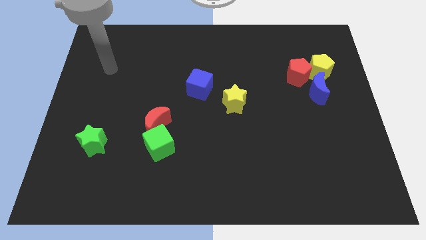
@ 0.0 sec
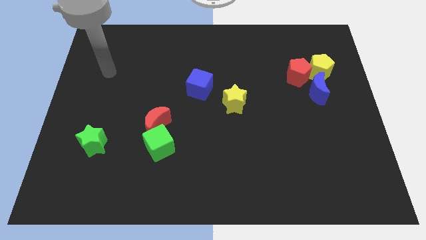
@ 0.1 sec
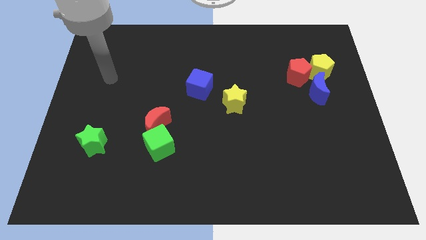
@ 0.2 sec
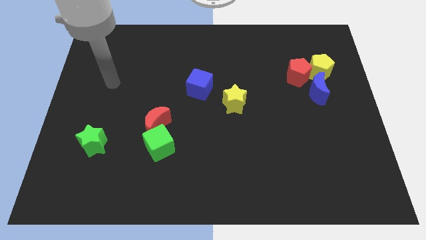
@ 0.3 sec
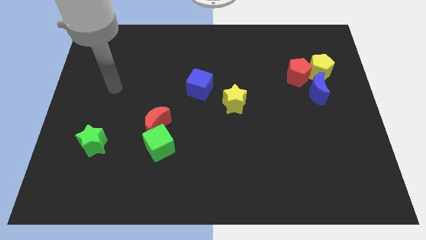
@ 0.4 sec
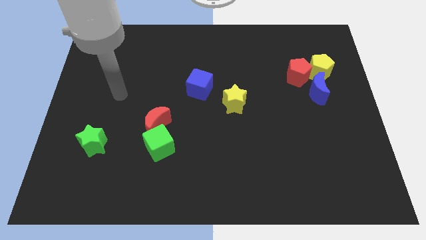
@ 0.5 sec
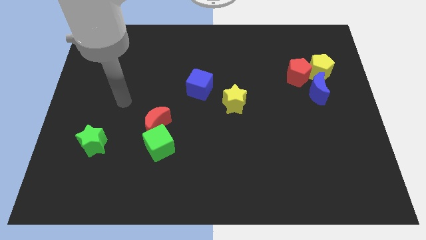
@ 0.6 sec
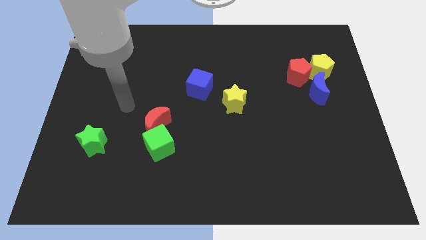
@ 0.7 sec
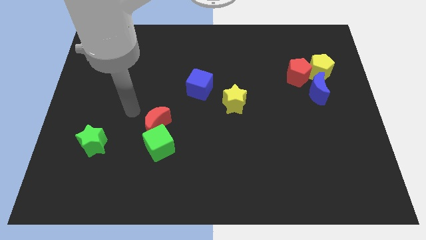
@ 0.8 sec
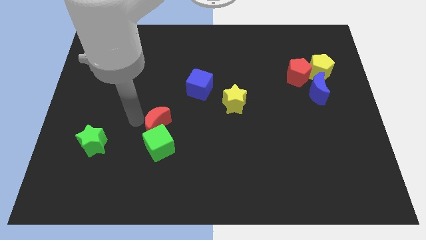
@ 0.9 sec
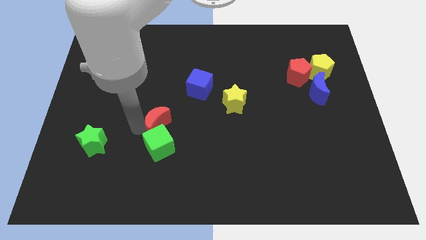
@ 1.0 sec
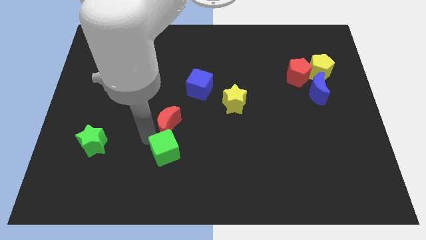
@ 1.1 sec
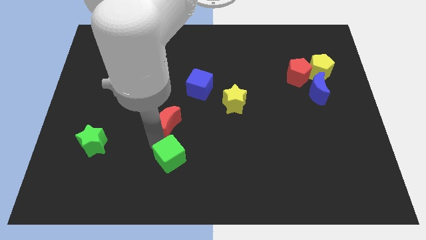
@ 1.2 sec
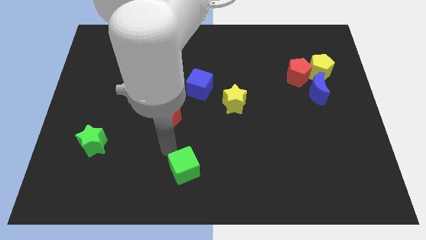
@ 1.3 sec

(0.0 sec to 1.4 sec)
pull the red moon apart from the green cube

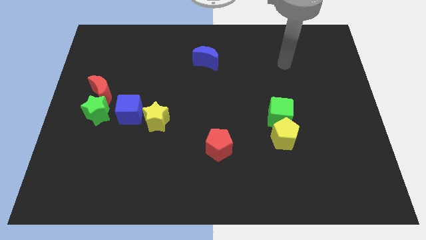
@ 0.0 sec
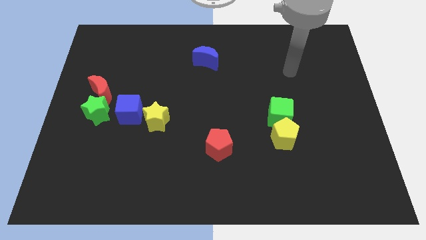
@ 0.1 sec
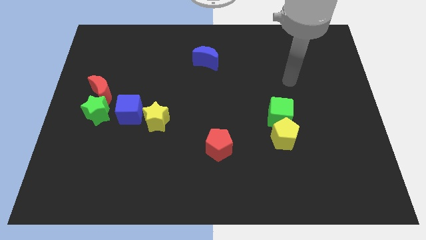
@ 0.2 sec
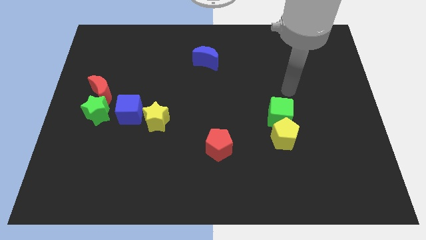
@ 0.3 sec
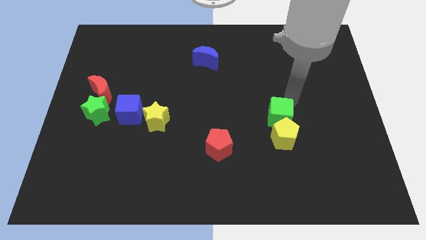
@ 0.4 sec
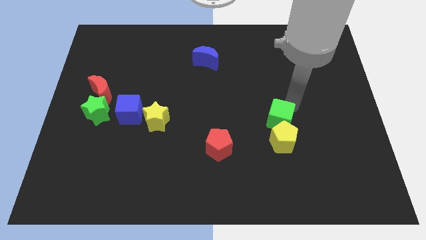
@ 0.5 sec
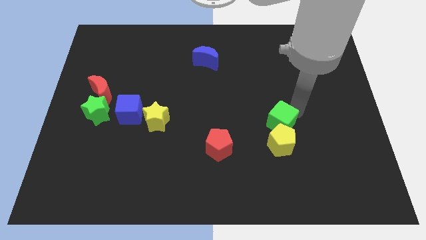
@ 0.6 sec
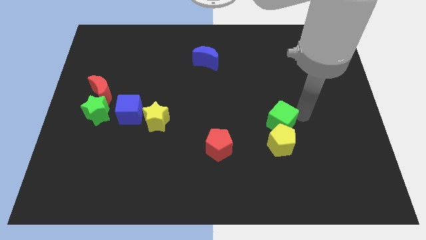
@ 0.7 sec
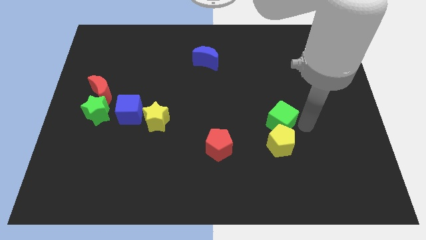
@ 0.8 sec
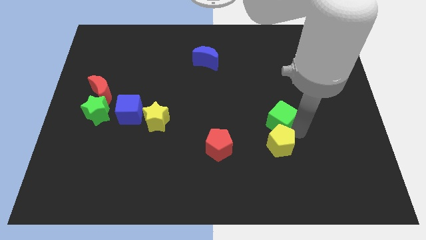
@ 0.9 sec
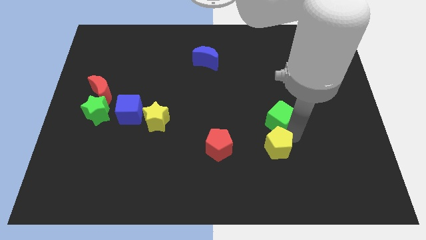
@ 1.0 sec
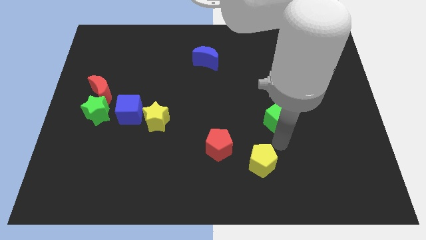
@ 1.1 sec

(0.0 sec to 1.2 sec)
pull the green cube apart from the yellow pentagon

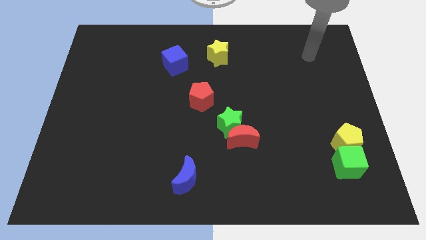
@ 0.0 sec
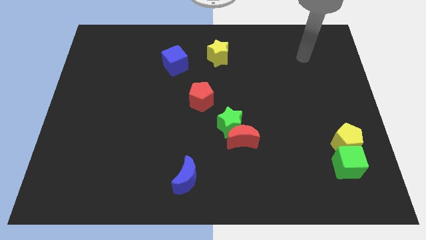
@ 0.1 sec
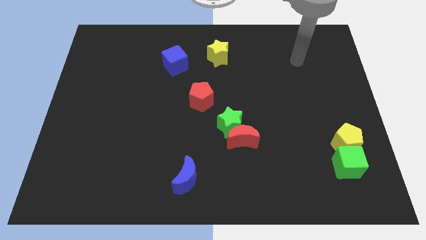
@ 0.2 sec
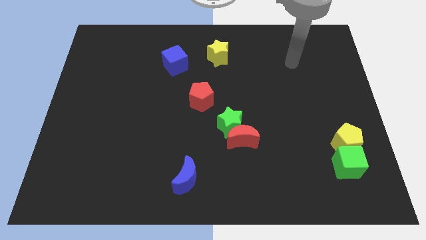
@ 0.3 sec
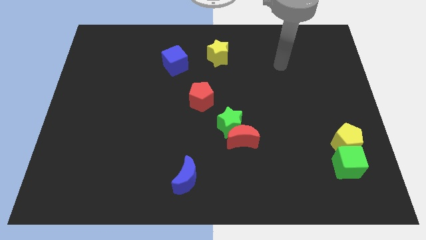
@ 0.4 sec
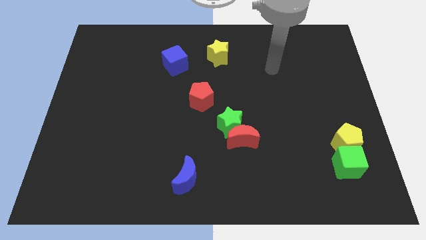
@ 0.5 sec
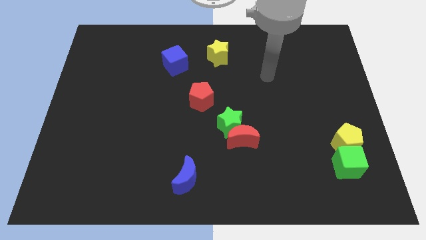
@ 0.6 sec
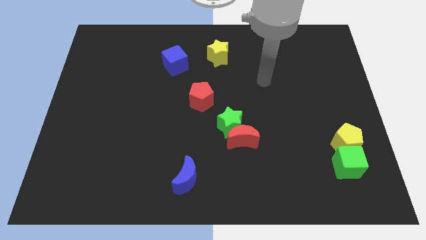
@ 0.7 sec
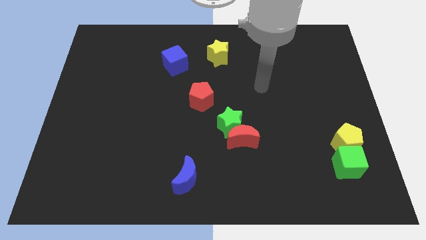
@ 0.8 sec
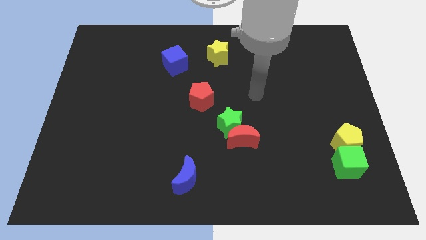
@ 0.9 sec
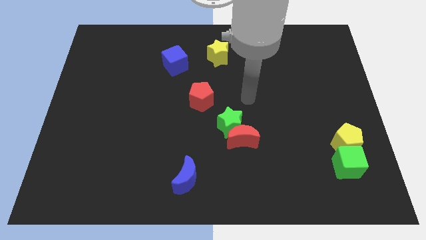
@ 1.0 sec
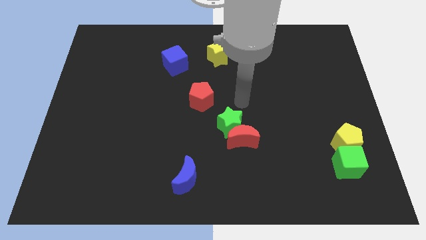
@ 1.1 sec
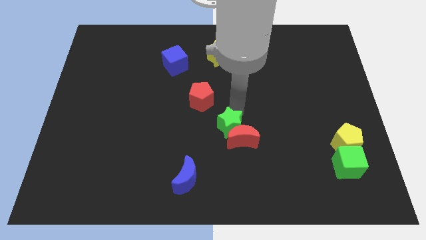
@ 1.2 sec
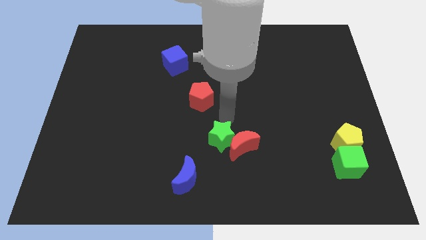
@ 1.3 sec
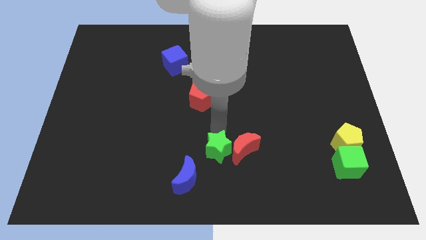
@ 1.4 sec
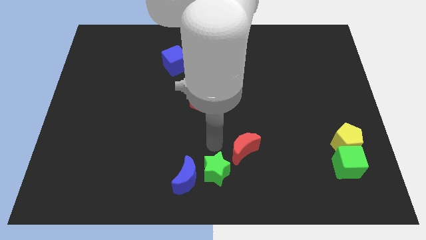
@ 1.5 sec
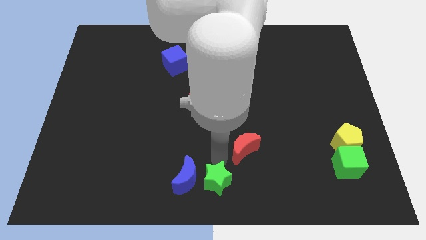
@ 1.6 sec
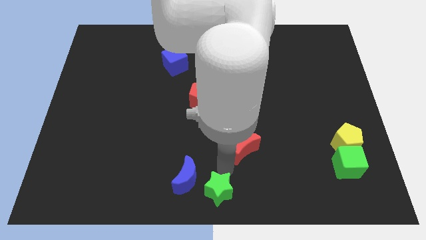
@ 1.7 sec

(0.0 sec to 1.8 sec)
move the red moon away from the green star

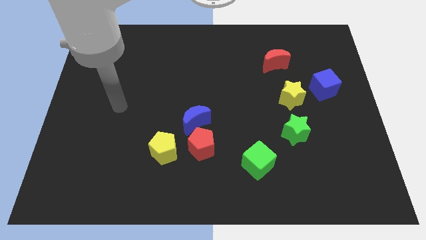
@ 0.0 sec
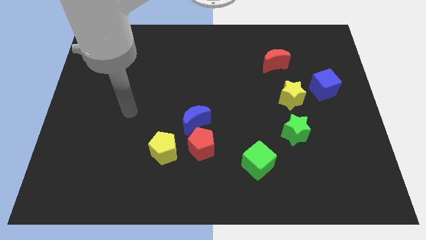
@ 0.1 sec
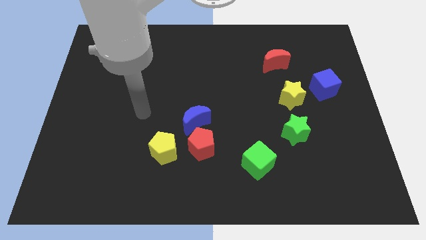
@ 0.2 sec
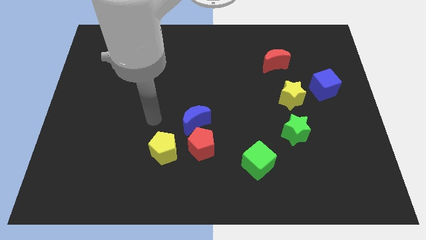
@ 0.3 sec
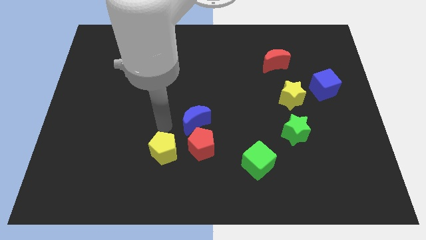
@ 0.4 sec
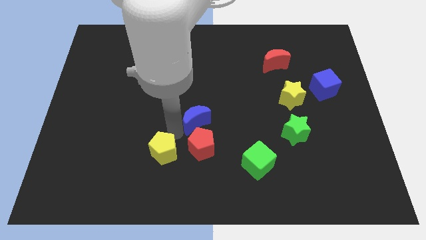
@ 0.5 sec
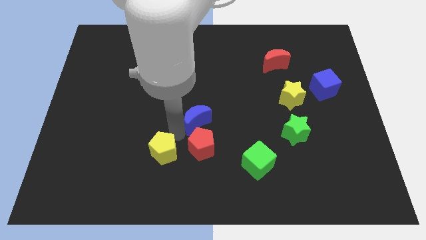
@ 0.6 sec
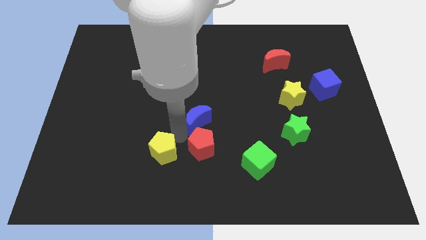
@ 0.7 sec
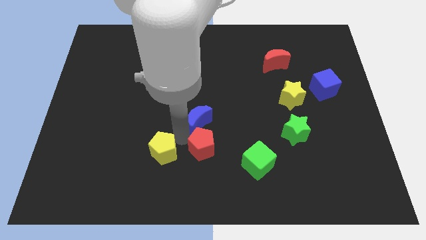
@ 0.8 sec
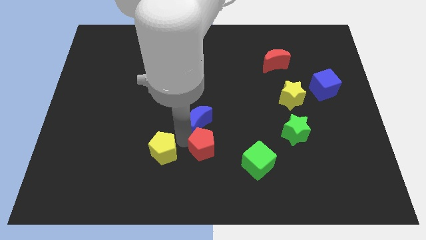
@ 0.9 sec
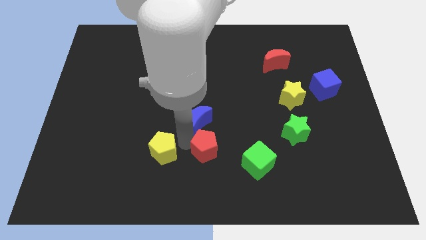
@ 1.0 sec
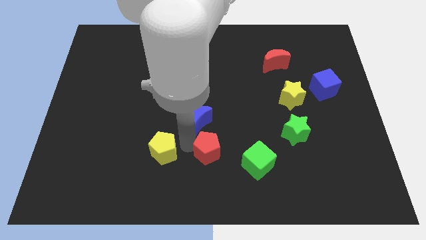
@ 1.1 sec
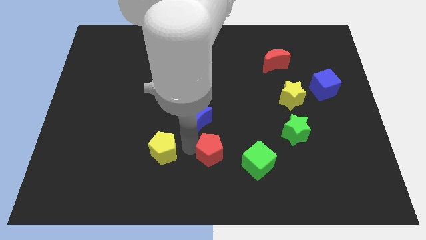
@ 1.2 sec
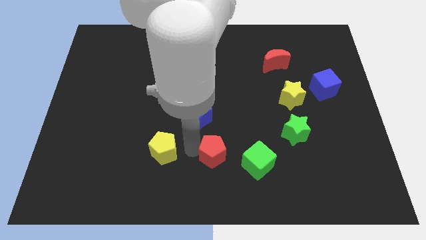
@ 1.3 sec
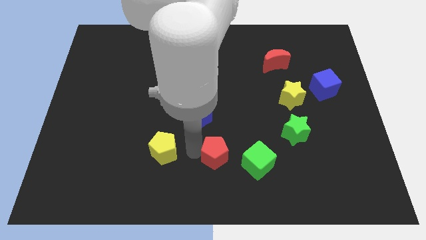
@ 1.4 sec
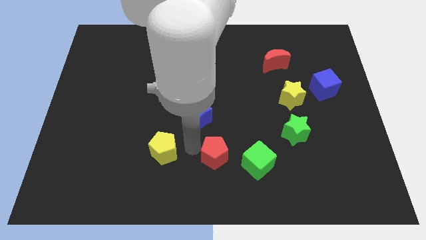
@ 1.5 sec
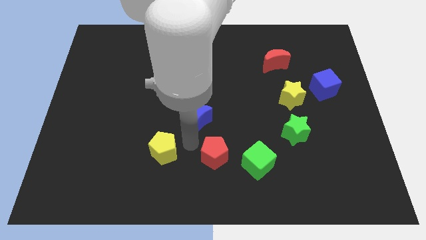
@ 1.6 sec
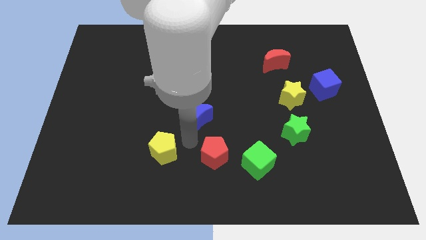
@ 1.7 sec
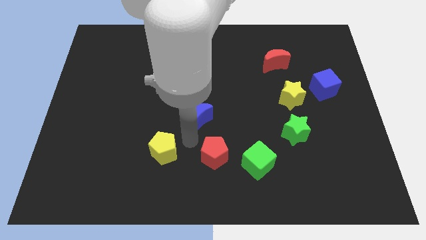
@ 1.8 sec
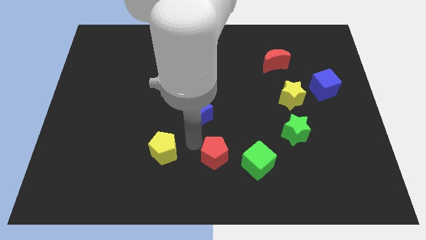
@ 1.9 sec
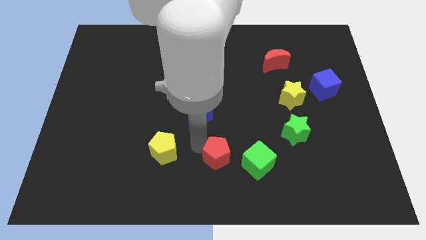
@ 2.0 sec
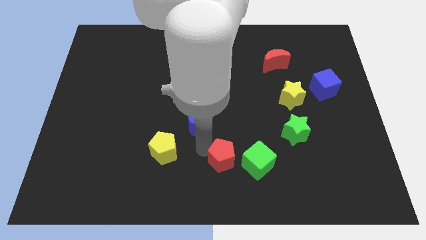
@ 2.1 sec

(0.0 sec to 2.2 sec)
pull the red pentagon apart from the blue moon and yellow pentagon

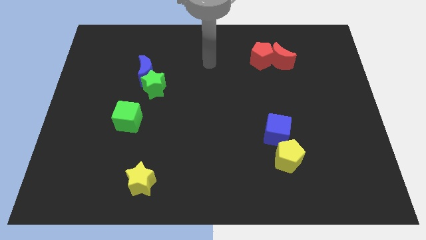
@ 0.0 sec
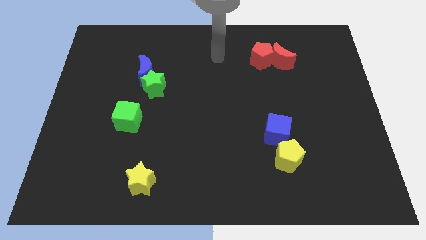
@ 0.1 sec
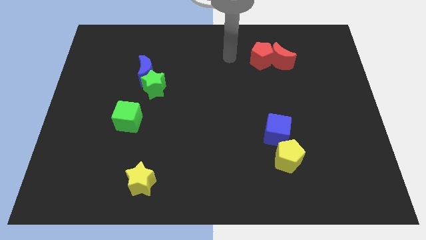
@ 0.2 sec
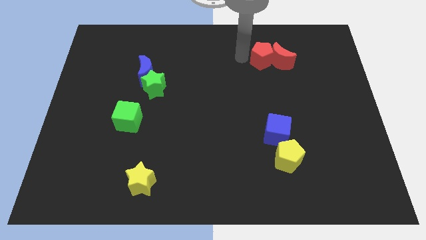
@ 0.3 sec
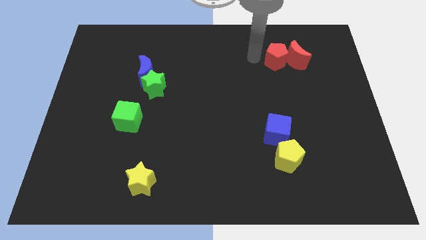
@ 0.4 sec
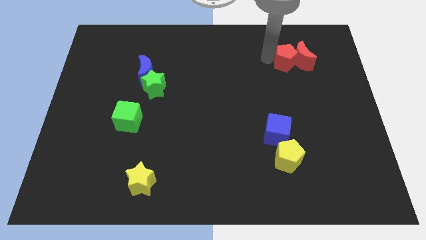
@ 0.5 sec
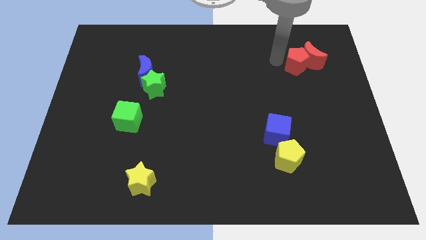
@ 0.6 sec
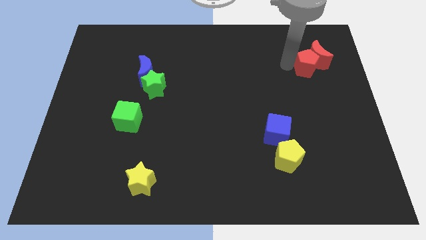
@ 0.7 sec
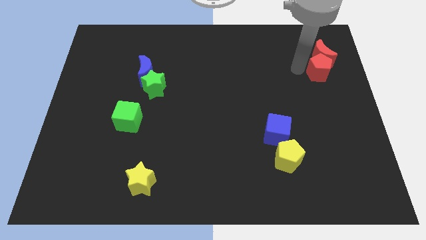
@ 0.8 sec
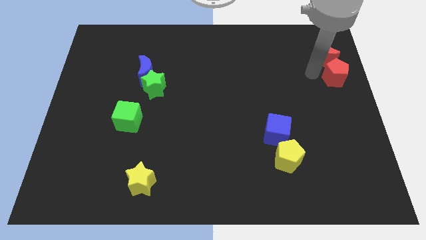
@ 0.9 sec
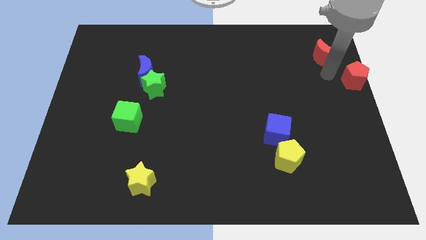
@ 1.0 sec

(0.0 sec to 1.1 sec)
separate the red moon from the red pentagon

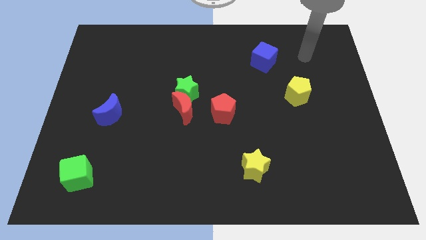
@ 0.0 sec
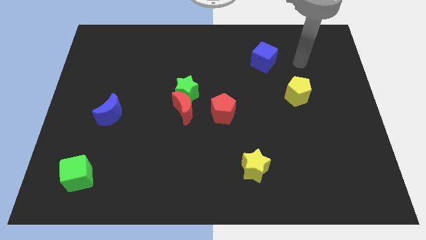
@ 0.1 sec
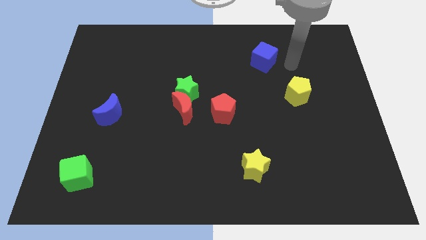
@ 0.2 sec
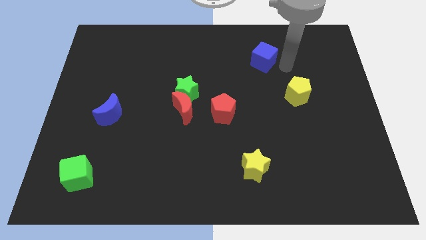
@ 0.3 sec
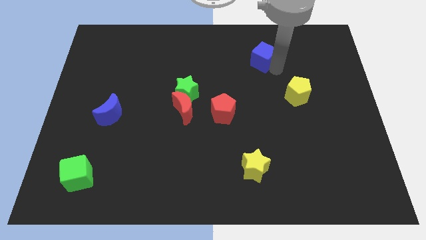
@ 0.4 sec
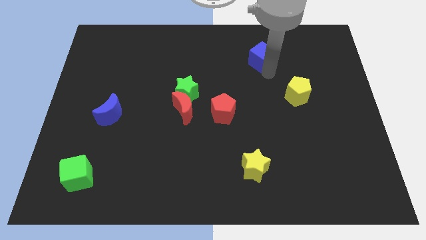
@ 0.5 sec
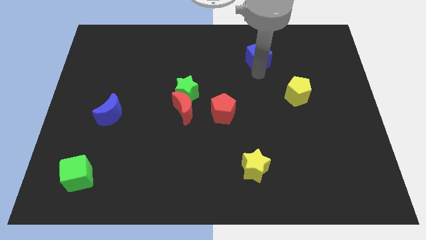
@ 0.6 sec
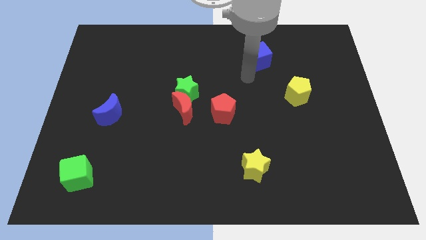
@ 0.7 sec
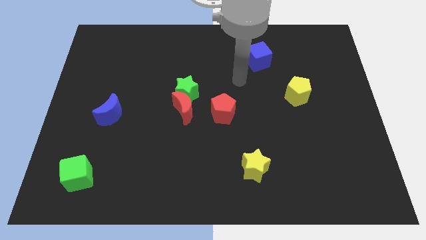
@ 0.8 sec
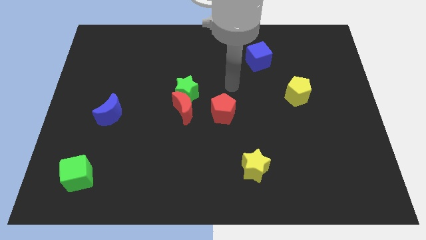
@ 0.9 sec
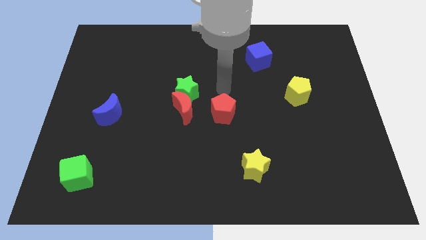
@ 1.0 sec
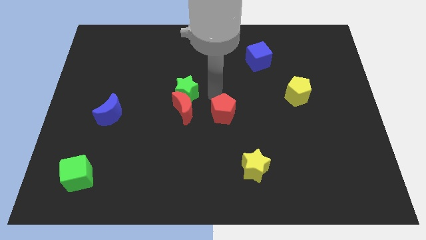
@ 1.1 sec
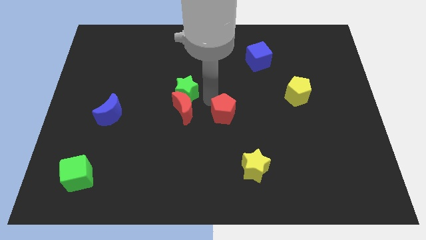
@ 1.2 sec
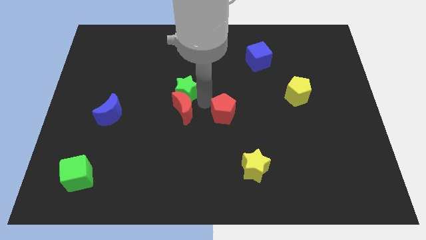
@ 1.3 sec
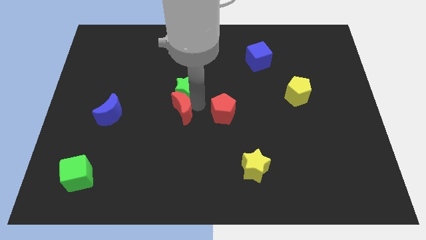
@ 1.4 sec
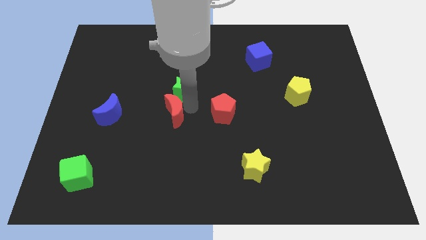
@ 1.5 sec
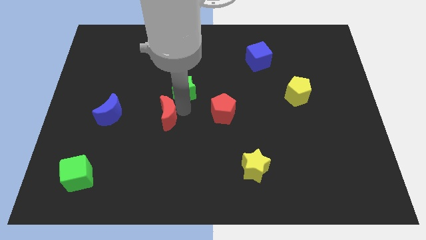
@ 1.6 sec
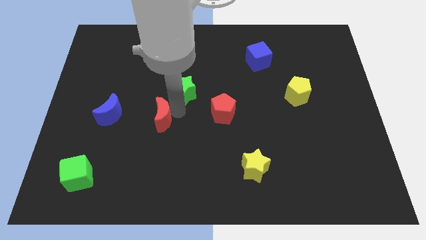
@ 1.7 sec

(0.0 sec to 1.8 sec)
pull the red moon apart from the green star and red pentagon
